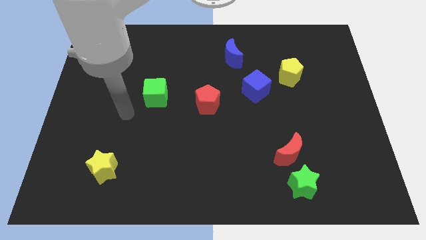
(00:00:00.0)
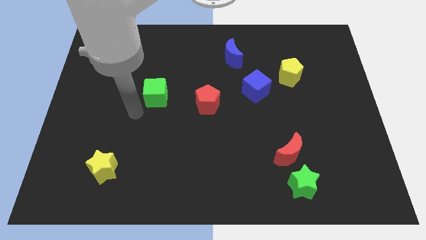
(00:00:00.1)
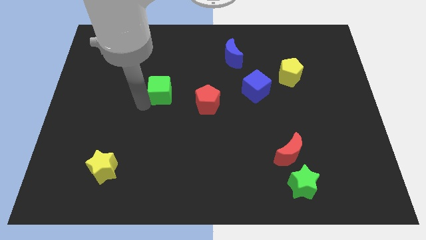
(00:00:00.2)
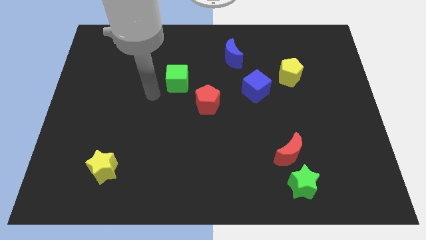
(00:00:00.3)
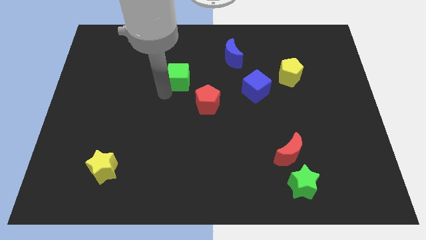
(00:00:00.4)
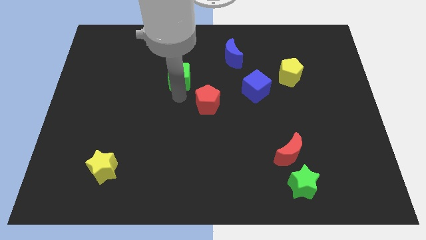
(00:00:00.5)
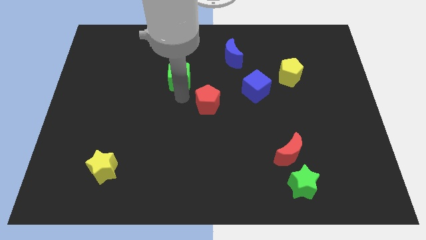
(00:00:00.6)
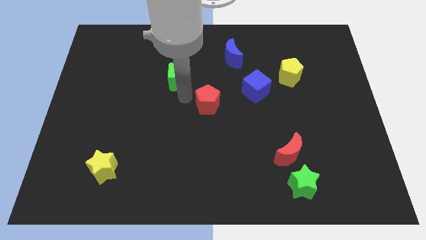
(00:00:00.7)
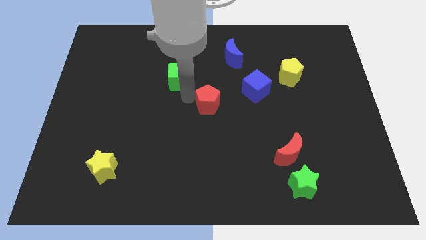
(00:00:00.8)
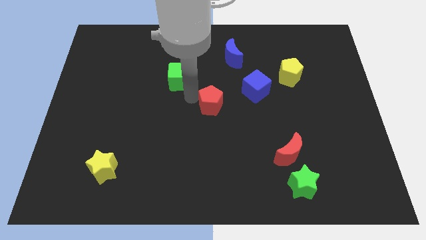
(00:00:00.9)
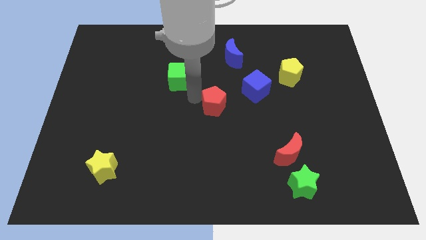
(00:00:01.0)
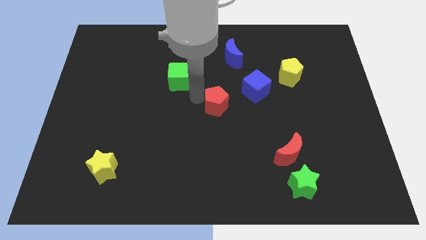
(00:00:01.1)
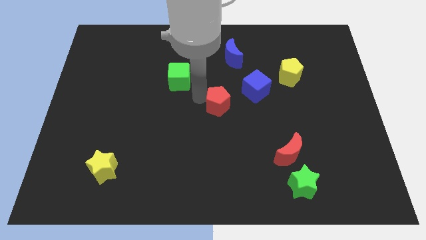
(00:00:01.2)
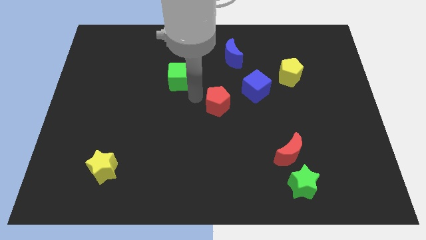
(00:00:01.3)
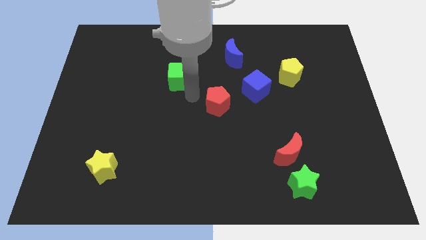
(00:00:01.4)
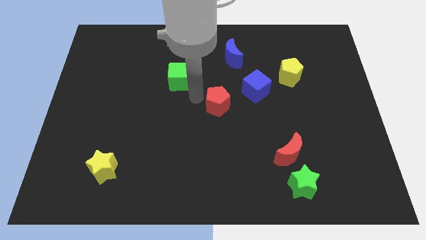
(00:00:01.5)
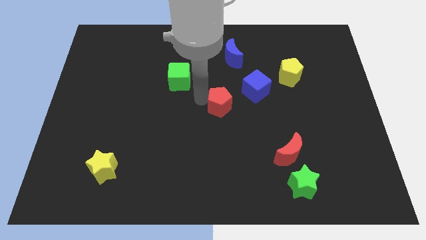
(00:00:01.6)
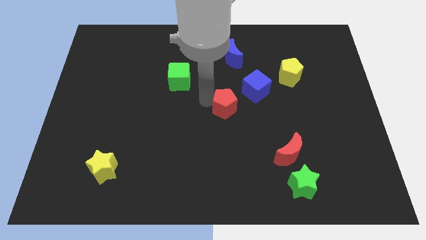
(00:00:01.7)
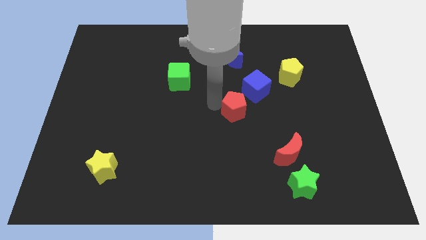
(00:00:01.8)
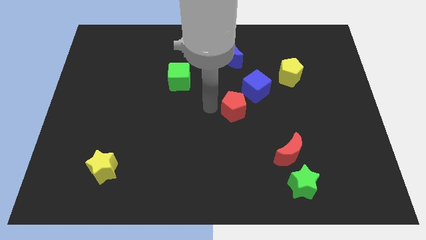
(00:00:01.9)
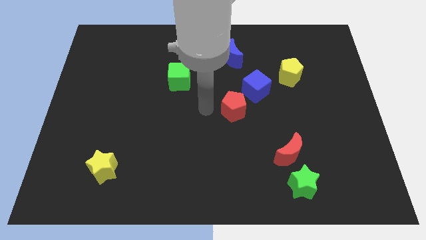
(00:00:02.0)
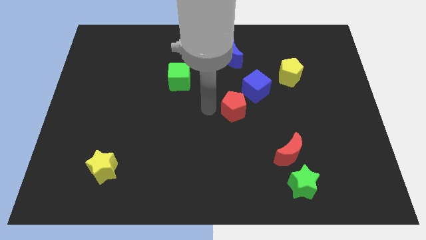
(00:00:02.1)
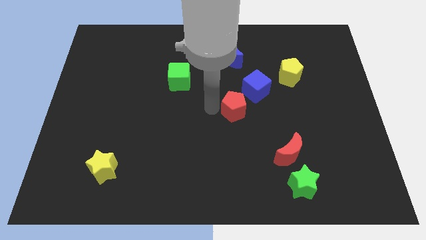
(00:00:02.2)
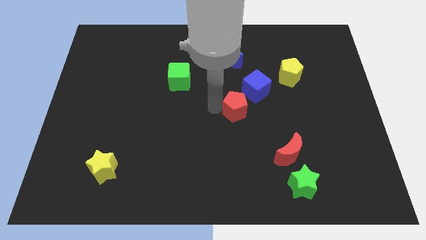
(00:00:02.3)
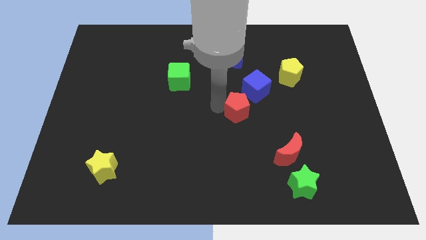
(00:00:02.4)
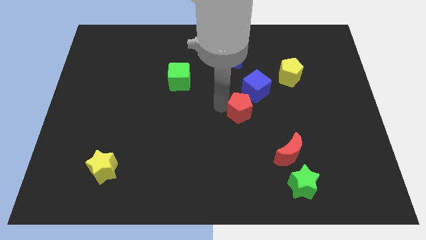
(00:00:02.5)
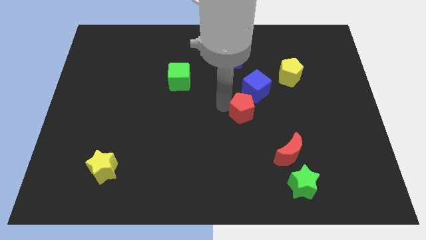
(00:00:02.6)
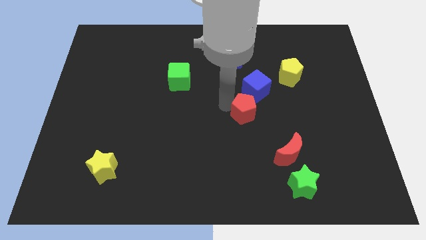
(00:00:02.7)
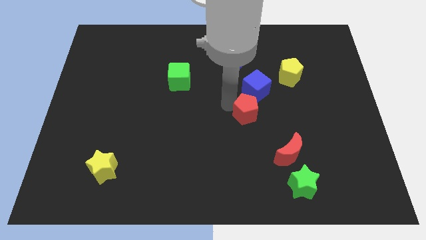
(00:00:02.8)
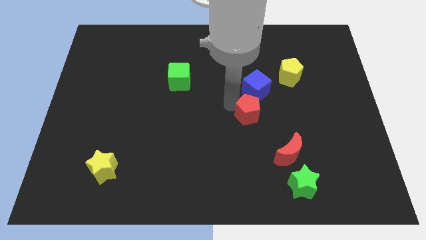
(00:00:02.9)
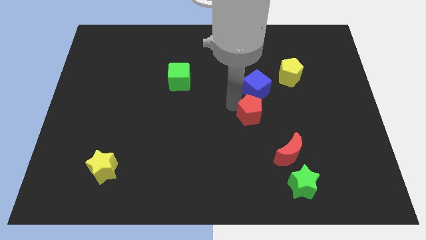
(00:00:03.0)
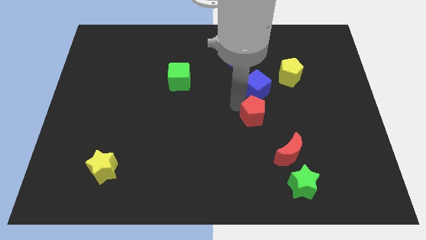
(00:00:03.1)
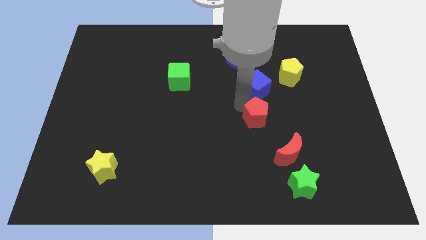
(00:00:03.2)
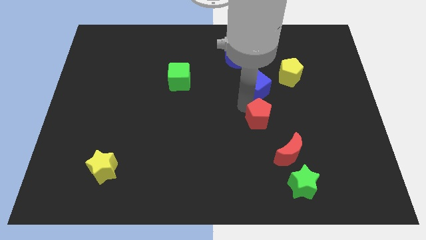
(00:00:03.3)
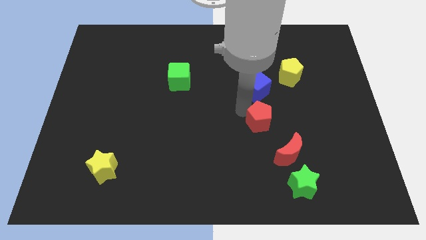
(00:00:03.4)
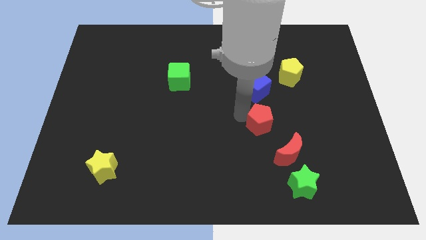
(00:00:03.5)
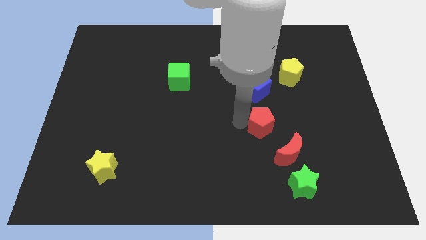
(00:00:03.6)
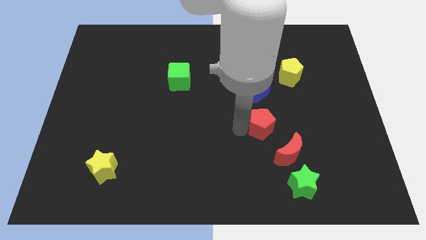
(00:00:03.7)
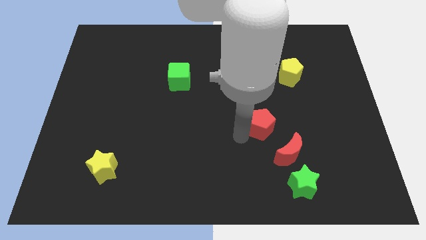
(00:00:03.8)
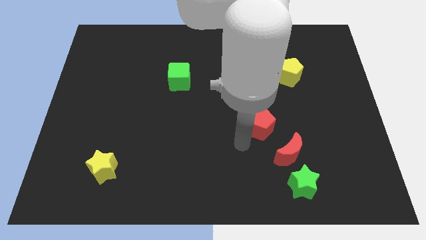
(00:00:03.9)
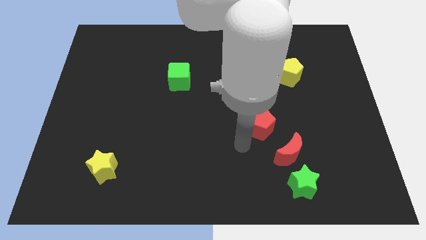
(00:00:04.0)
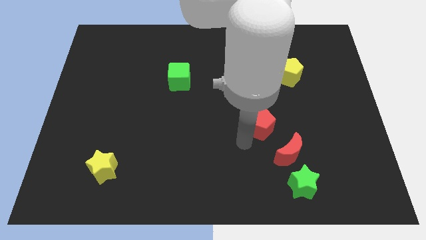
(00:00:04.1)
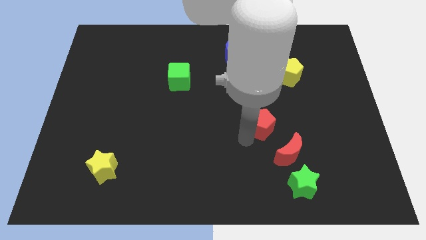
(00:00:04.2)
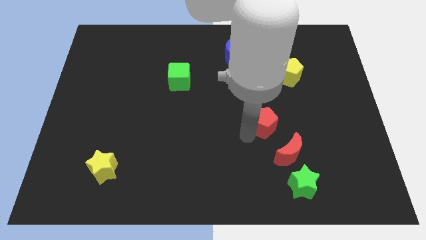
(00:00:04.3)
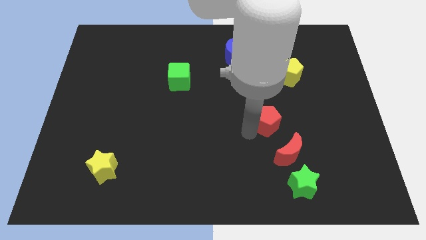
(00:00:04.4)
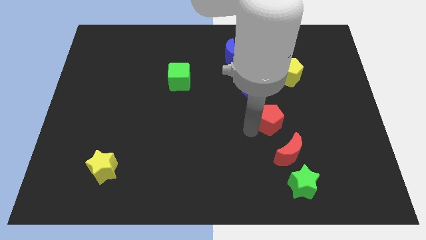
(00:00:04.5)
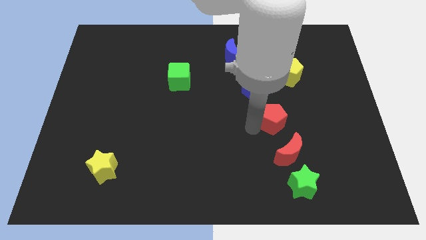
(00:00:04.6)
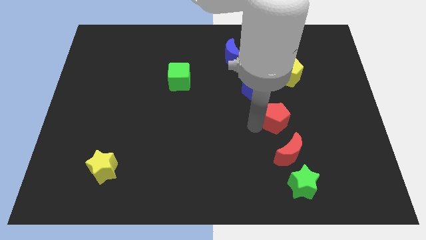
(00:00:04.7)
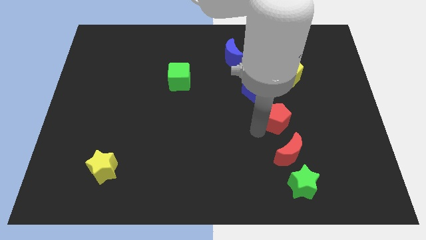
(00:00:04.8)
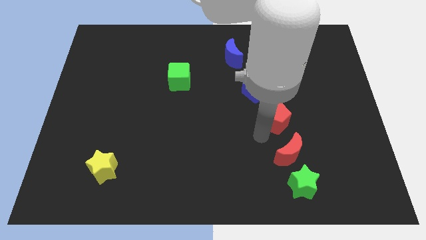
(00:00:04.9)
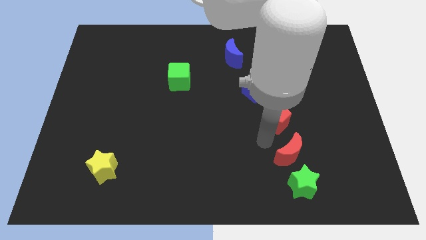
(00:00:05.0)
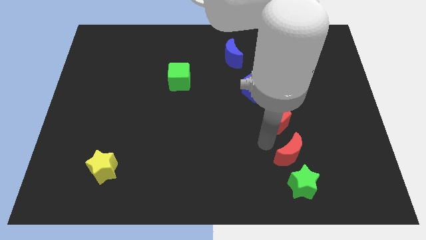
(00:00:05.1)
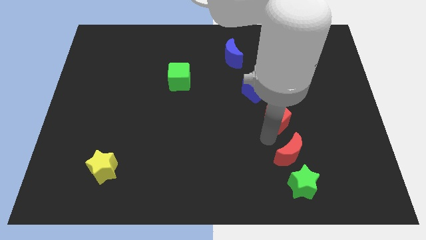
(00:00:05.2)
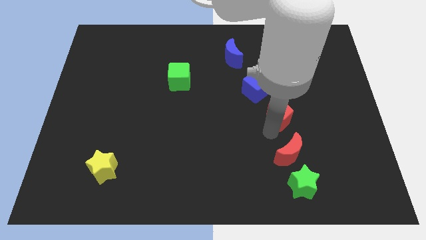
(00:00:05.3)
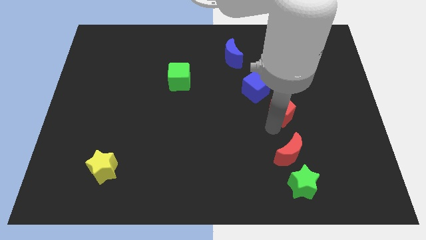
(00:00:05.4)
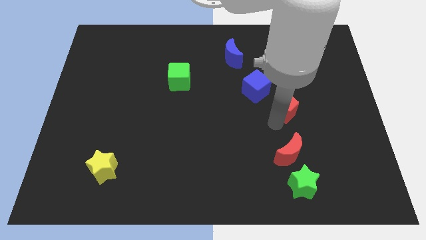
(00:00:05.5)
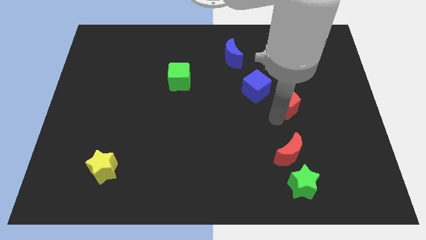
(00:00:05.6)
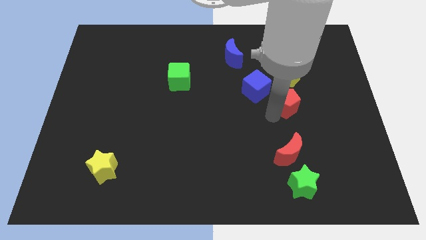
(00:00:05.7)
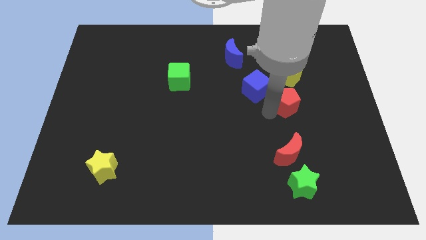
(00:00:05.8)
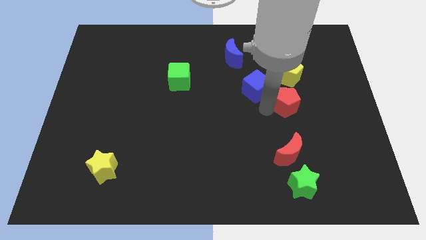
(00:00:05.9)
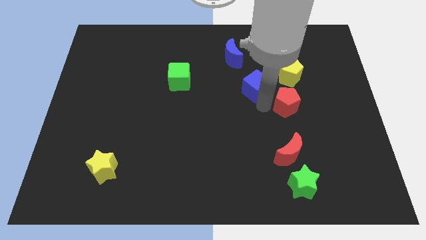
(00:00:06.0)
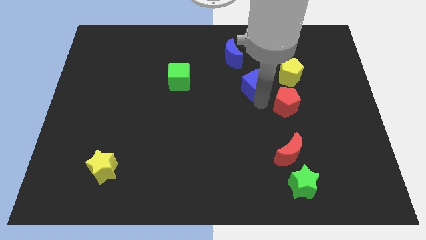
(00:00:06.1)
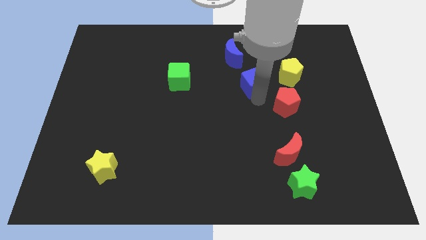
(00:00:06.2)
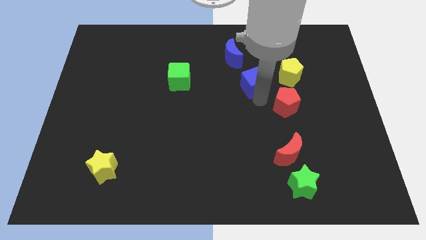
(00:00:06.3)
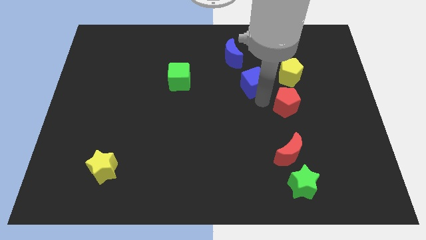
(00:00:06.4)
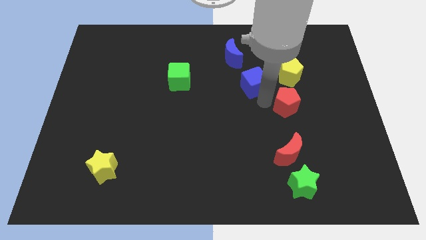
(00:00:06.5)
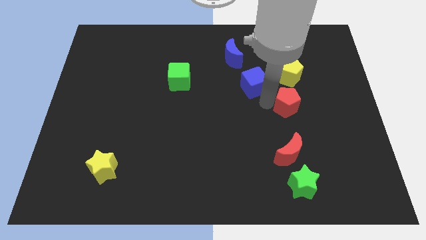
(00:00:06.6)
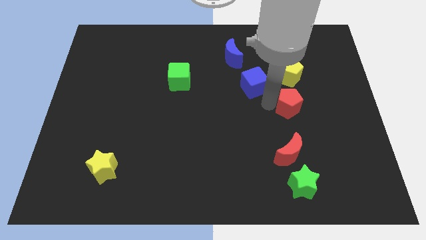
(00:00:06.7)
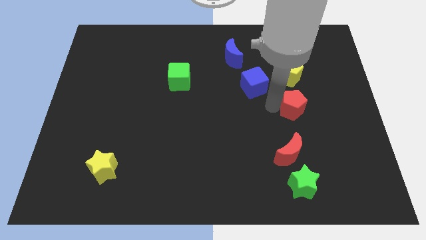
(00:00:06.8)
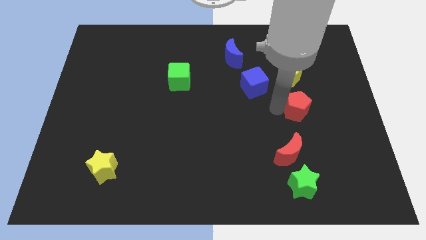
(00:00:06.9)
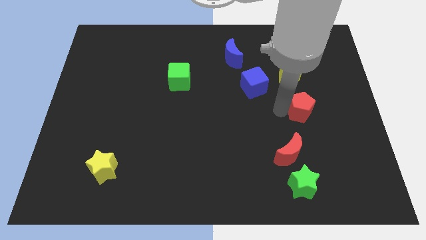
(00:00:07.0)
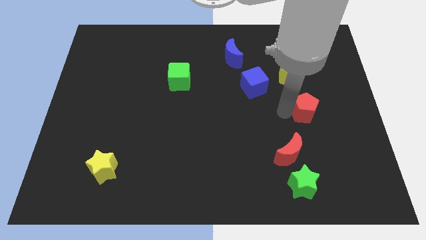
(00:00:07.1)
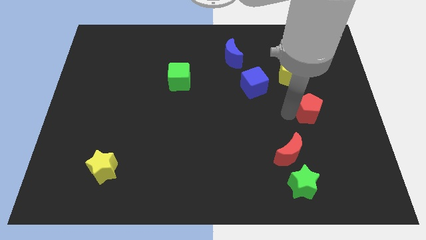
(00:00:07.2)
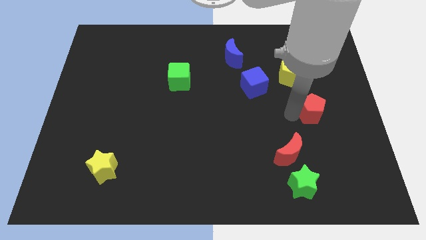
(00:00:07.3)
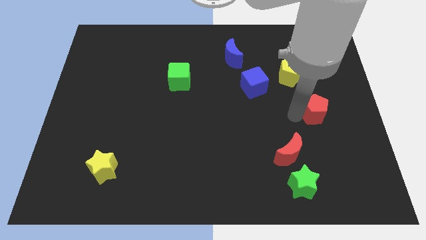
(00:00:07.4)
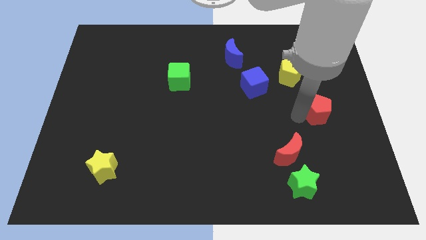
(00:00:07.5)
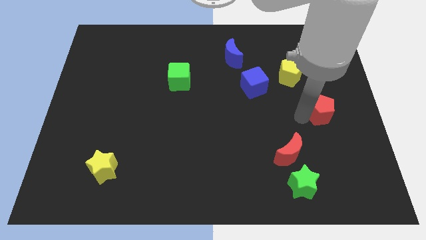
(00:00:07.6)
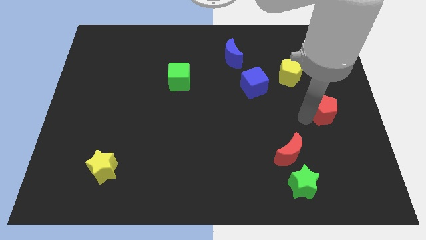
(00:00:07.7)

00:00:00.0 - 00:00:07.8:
put the red pentagon to the center right

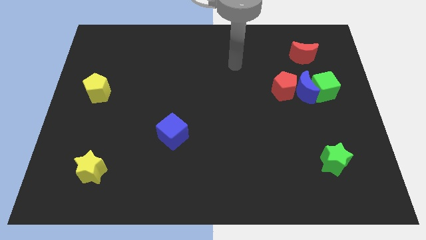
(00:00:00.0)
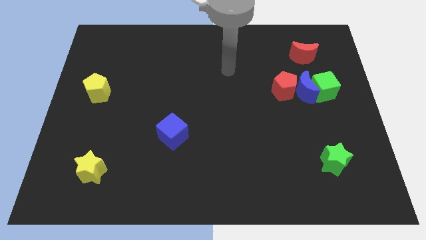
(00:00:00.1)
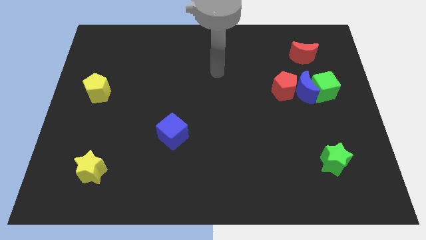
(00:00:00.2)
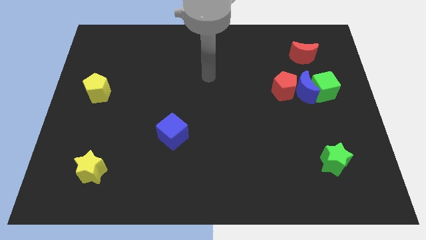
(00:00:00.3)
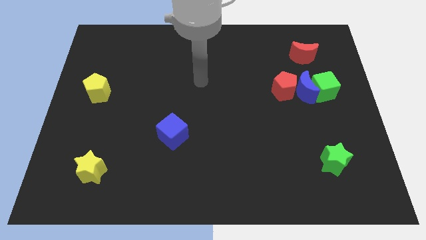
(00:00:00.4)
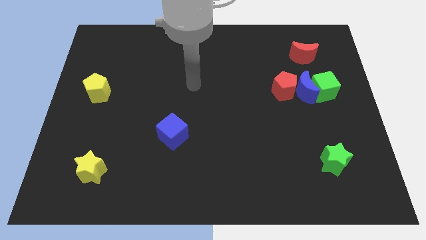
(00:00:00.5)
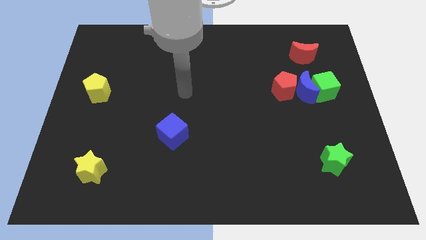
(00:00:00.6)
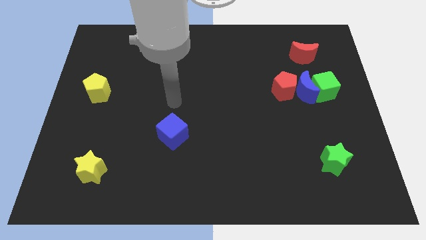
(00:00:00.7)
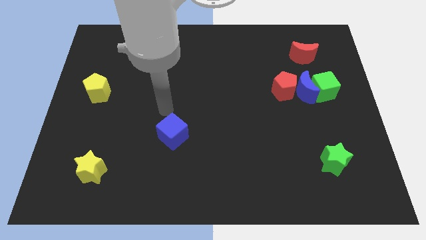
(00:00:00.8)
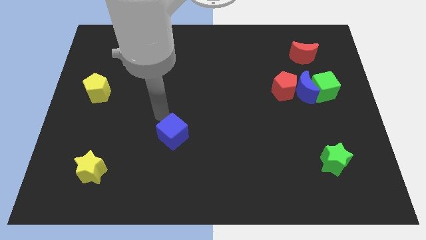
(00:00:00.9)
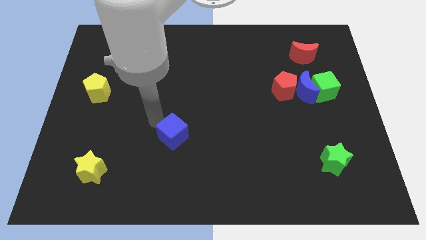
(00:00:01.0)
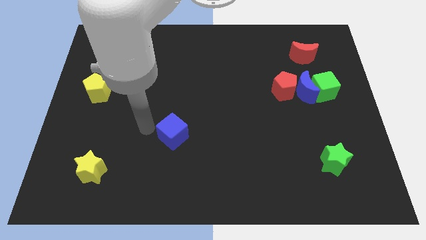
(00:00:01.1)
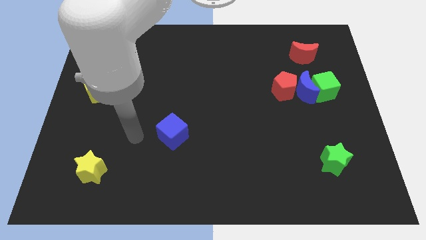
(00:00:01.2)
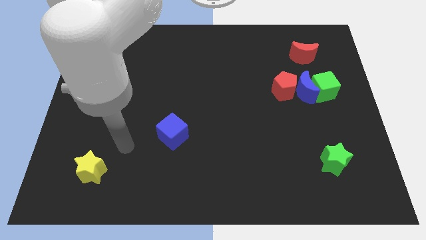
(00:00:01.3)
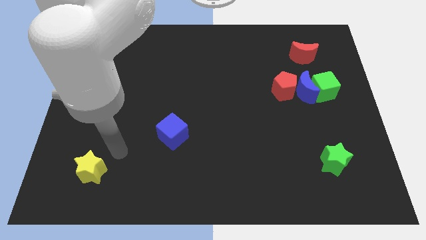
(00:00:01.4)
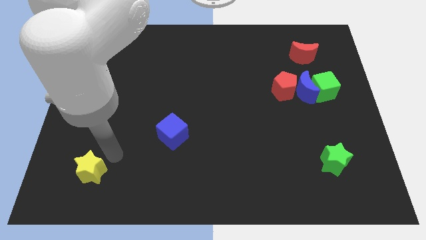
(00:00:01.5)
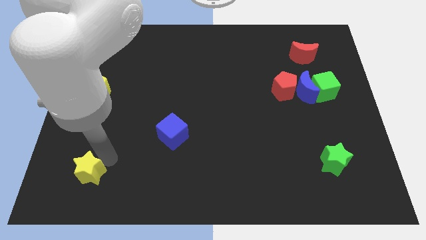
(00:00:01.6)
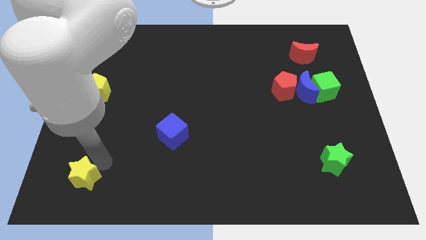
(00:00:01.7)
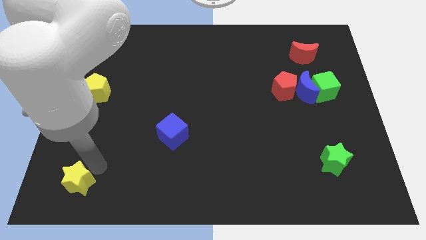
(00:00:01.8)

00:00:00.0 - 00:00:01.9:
move the yellow star to the bottom left corner
